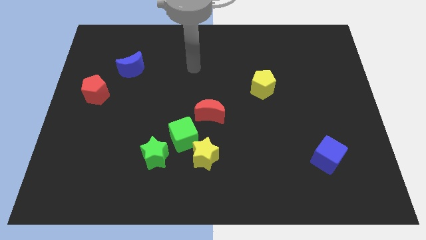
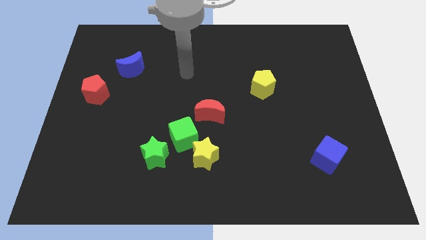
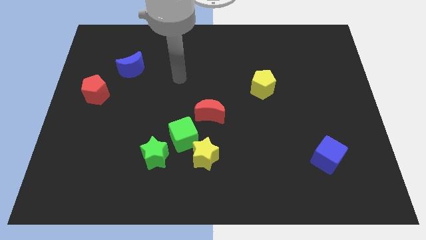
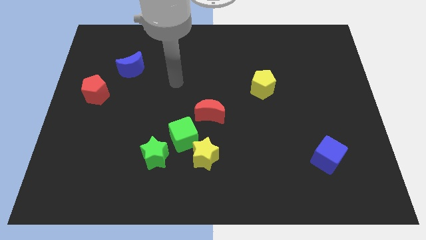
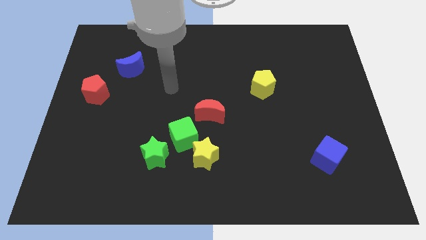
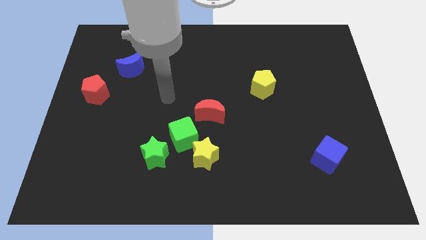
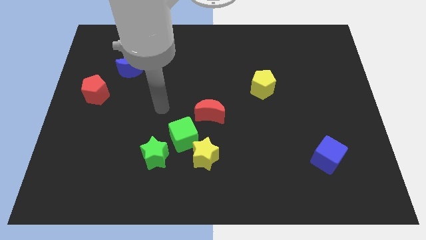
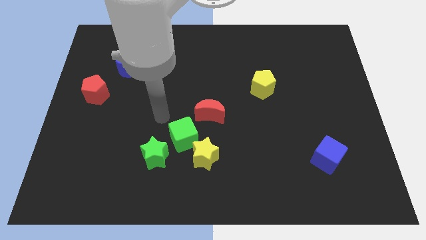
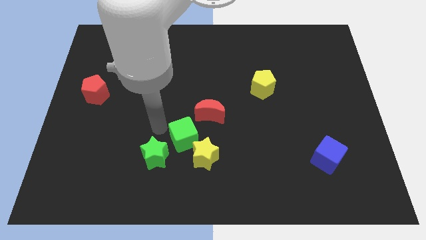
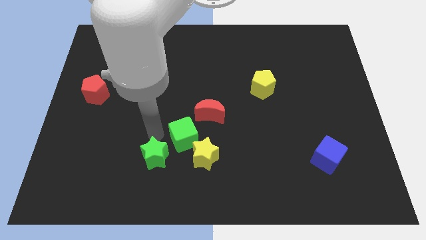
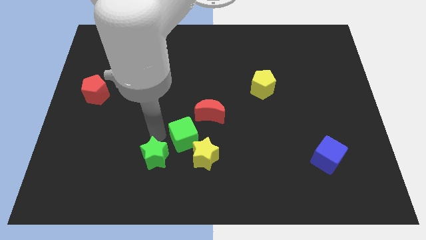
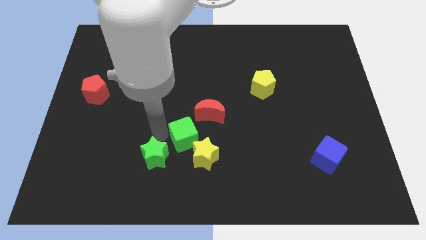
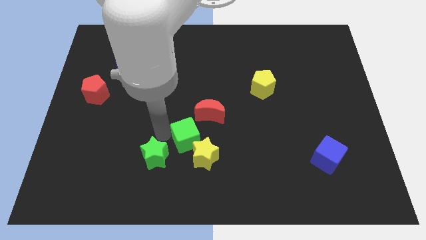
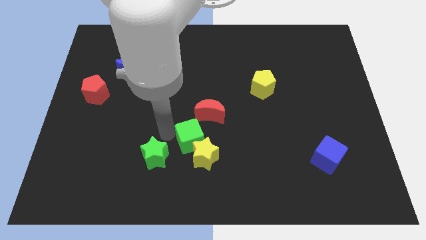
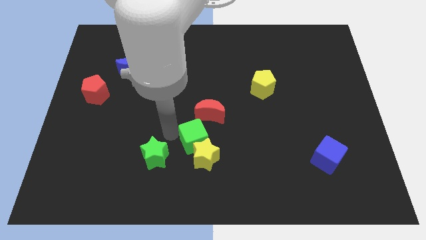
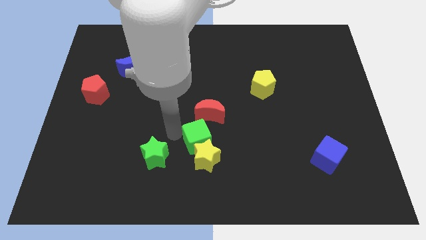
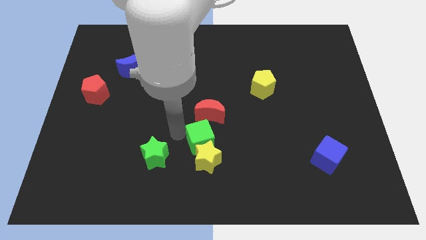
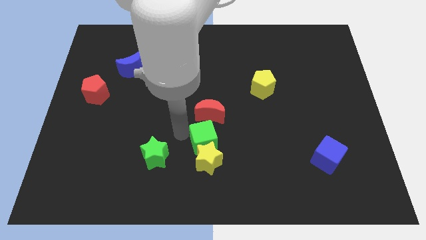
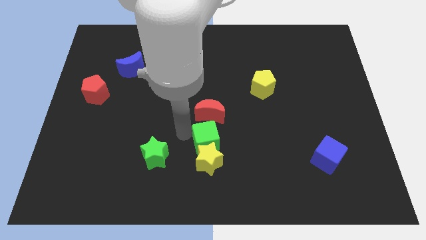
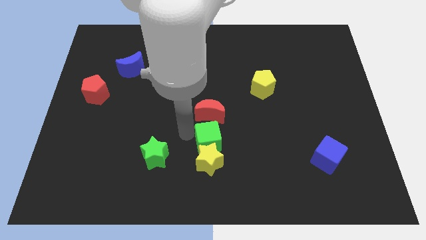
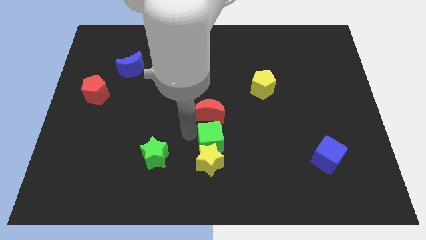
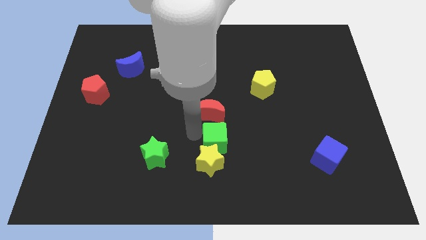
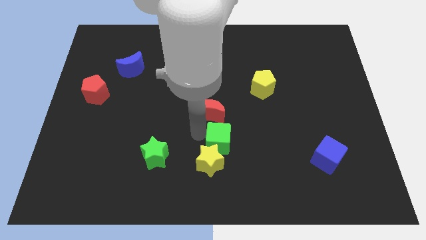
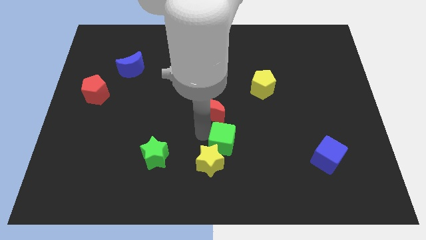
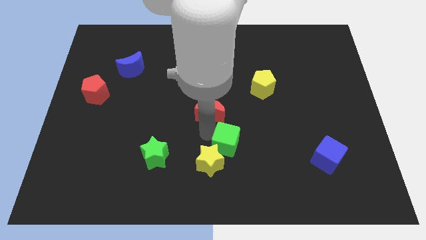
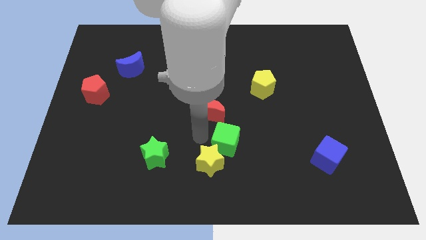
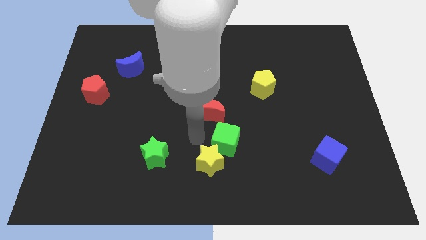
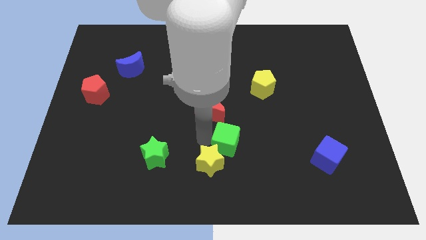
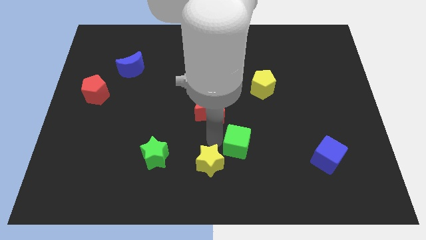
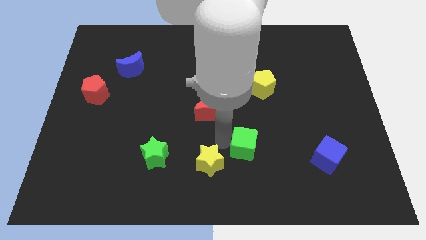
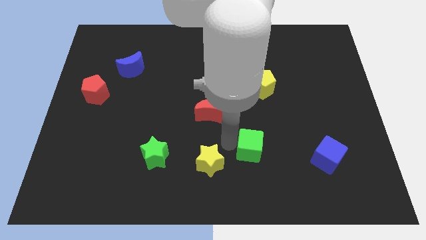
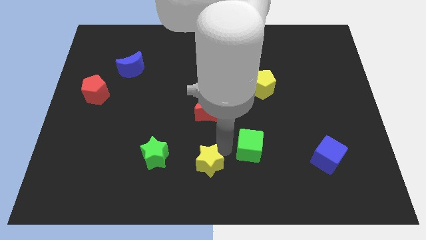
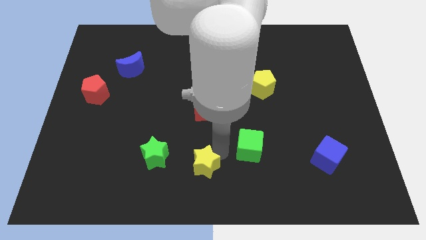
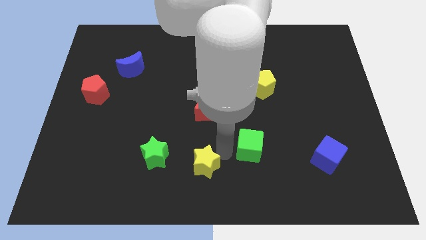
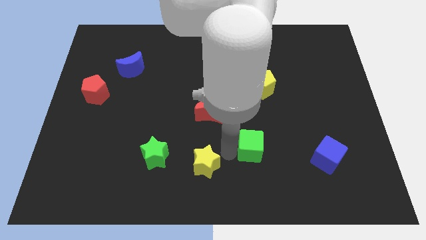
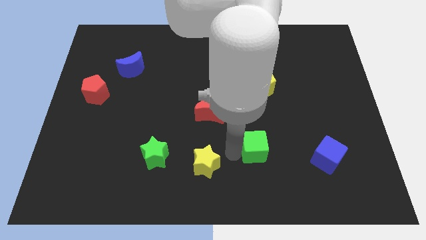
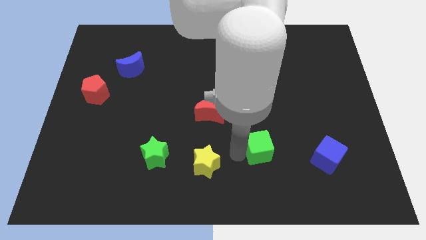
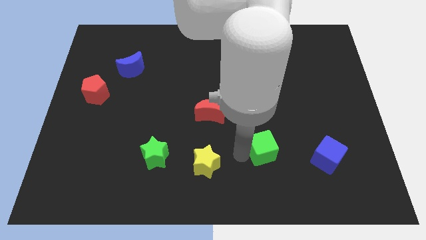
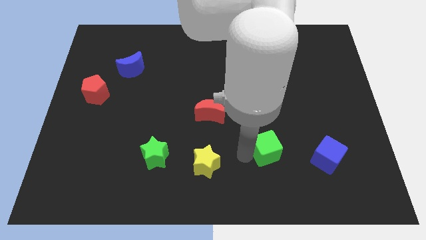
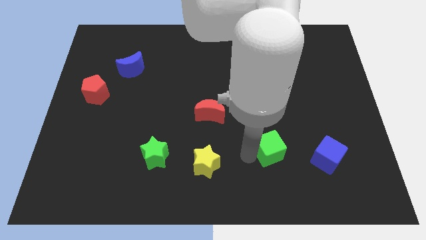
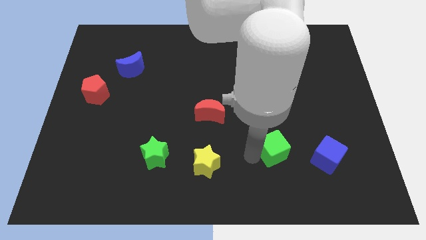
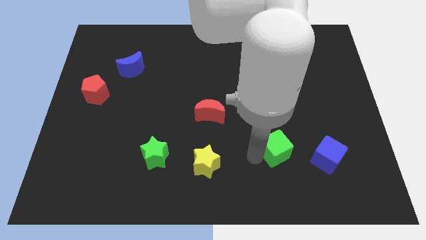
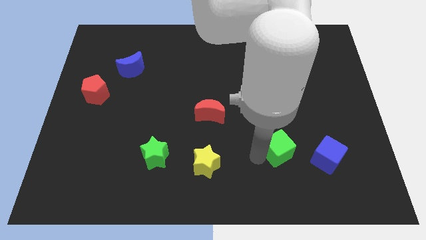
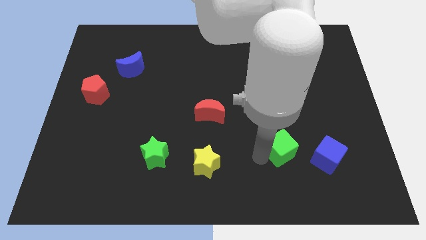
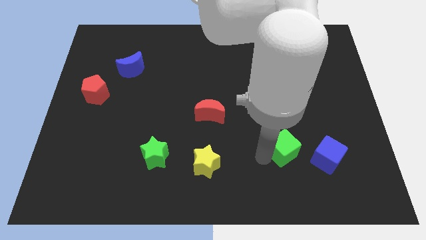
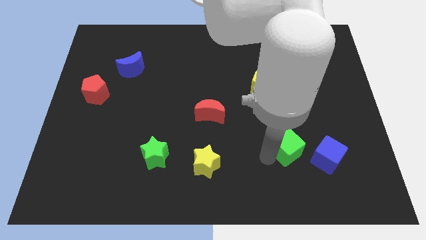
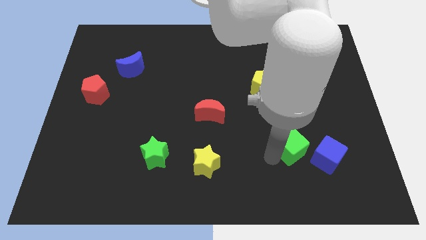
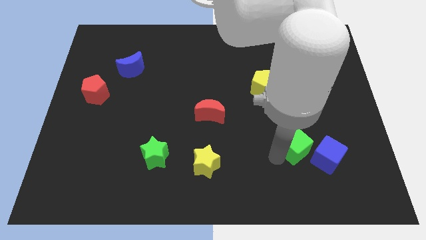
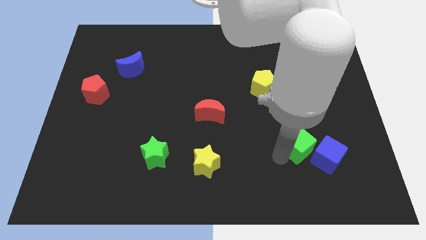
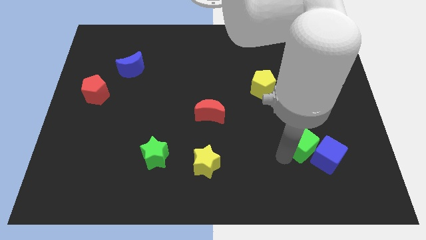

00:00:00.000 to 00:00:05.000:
put the green cube next to the blue cube

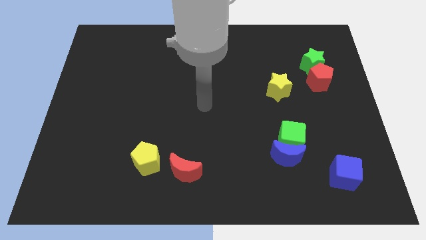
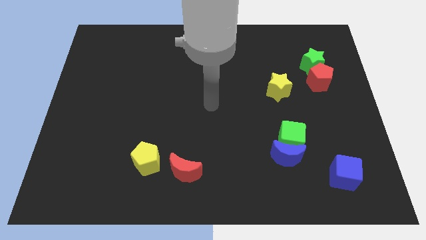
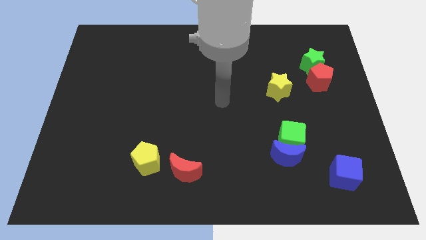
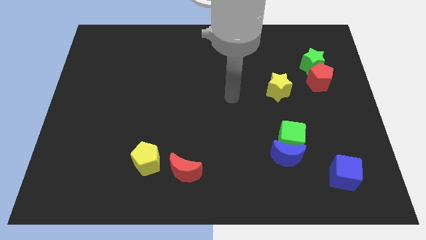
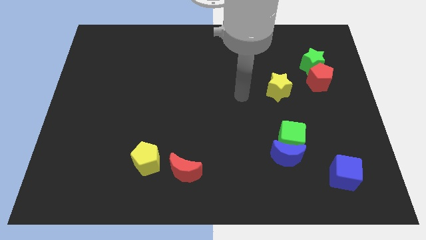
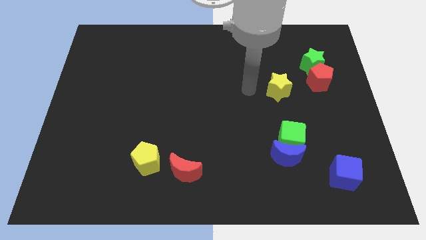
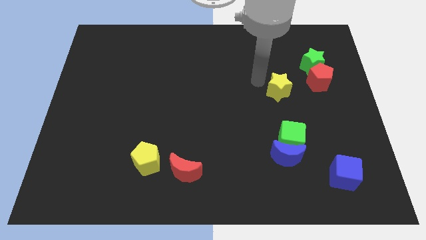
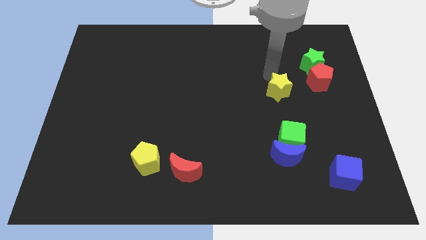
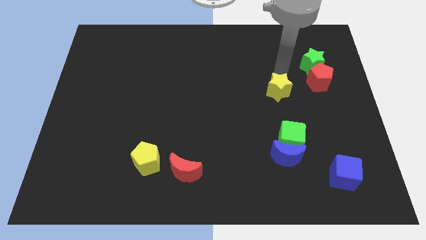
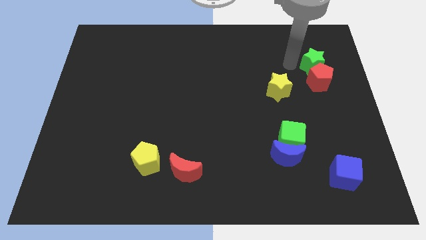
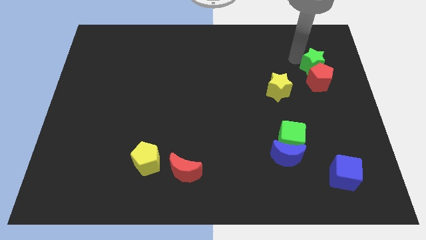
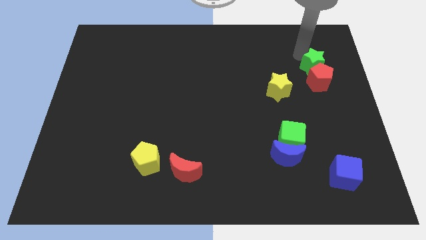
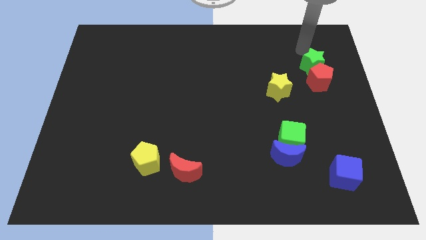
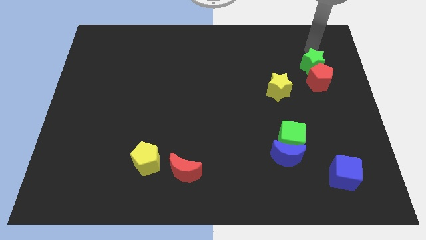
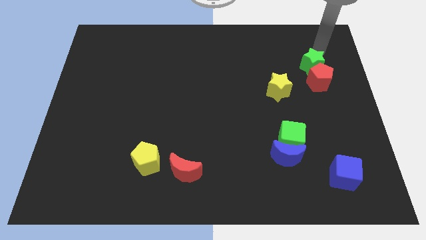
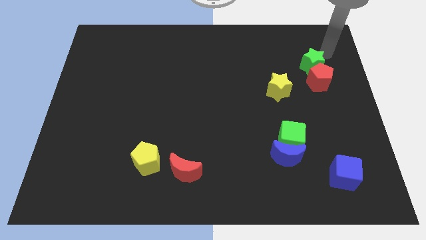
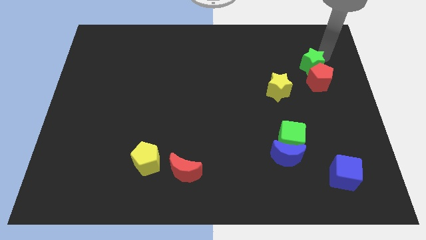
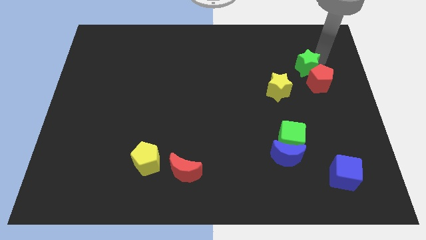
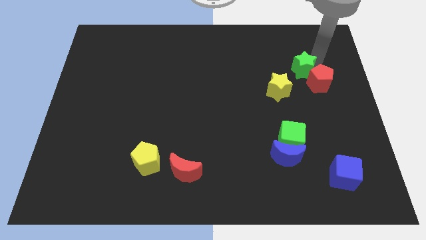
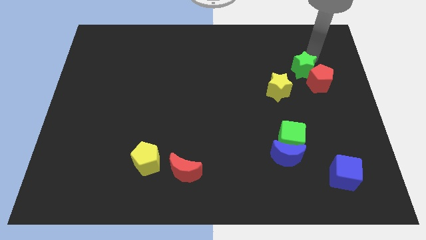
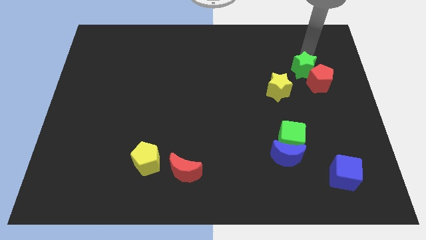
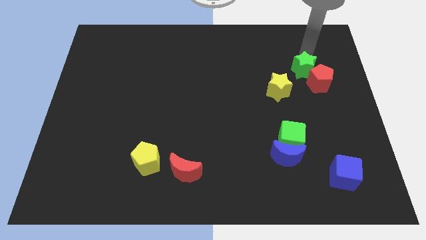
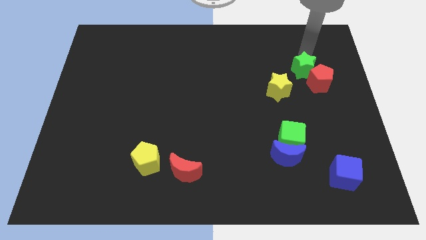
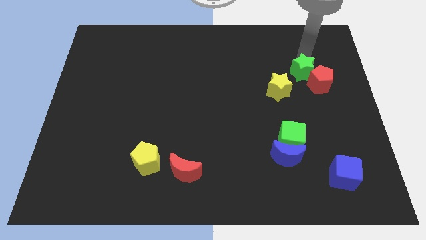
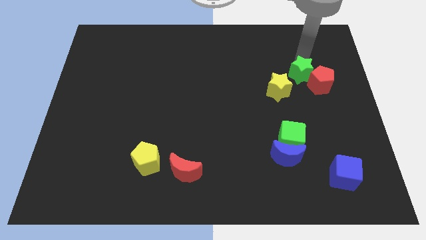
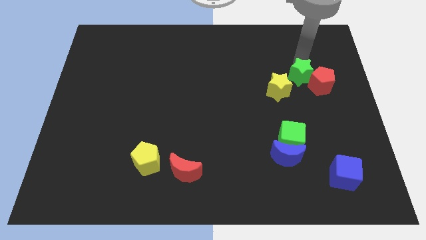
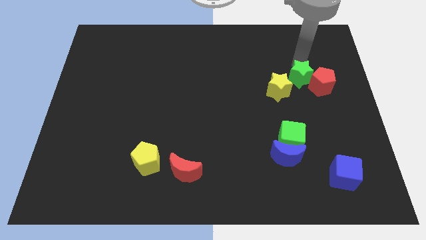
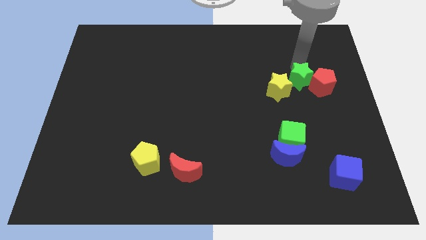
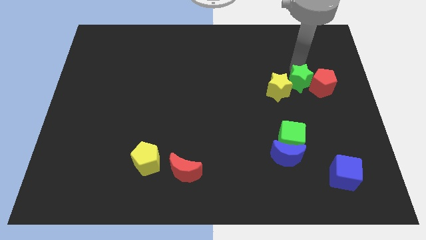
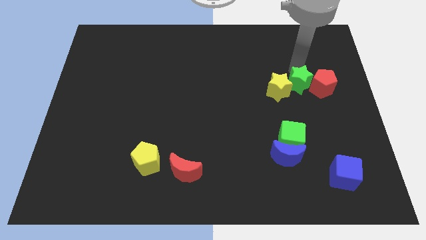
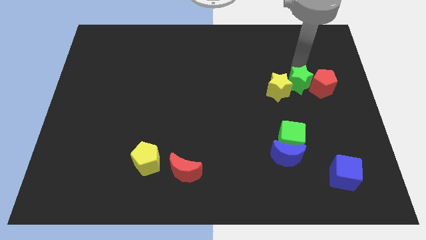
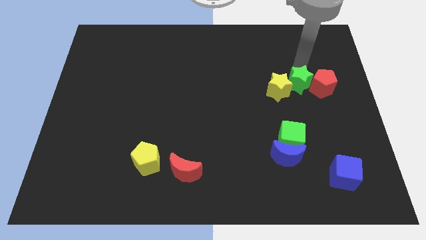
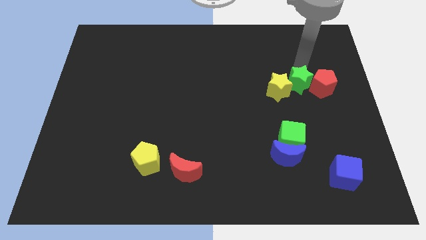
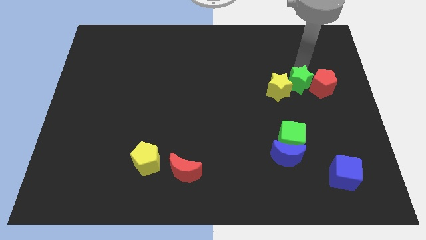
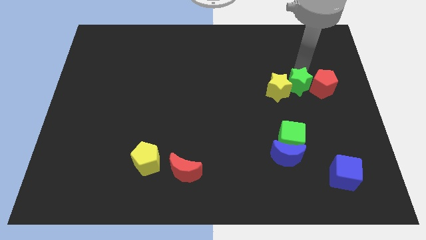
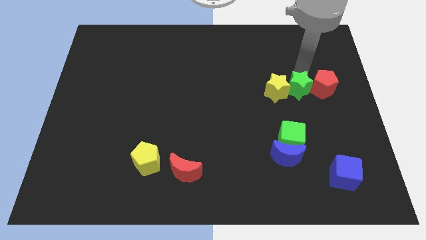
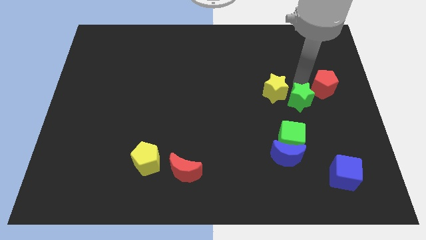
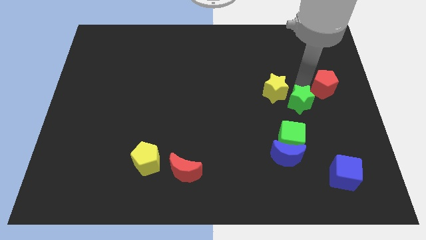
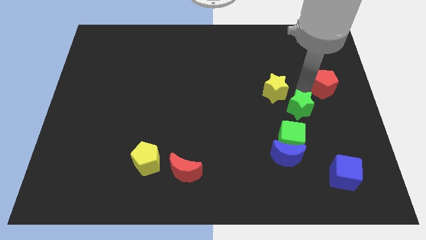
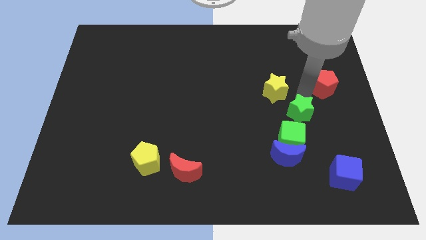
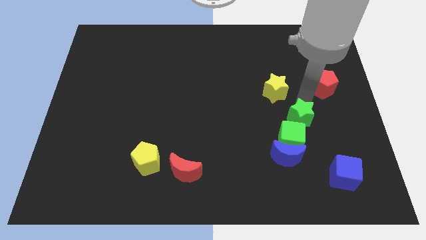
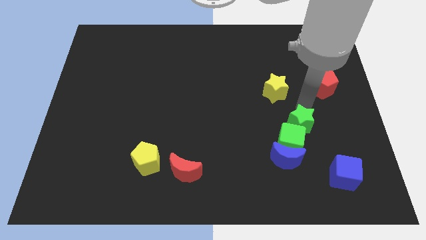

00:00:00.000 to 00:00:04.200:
slide the green star towards the green cube
